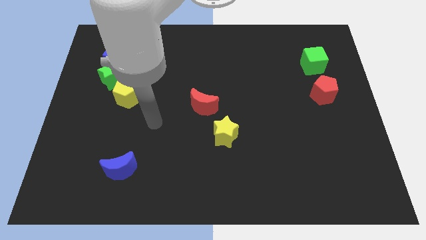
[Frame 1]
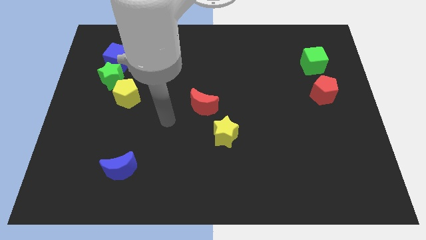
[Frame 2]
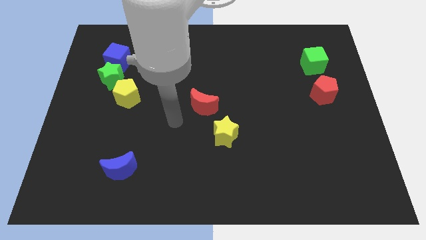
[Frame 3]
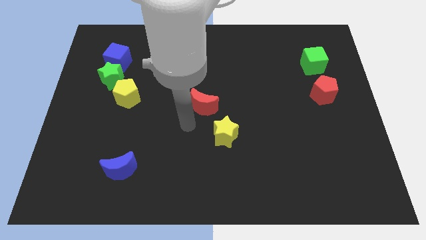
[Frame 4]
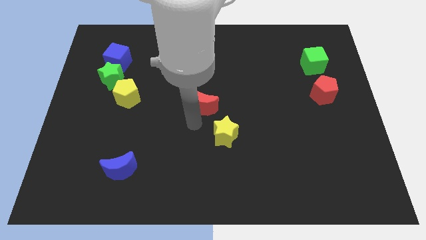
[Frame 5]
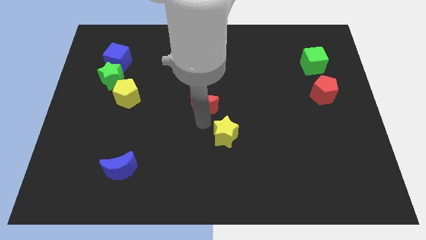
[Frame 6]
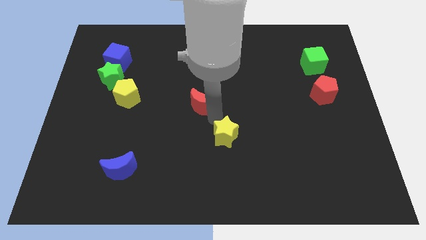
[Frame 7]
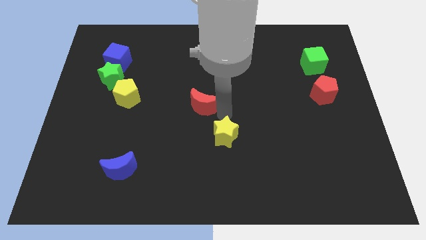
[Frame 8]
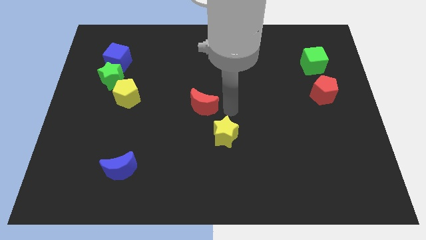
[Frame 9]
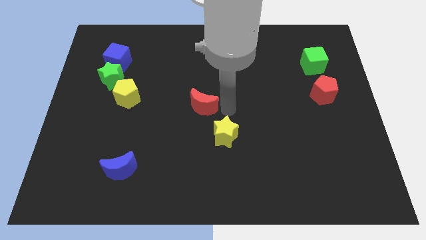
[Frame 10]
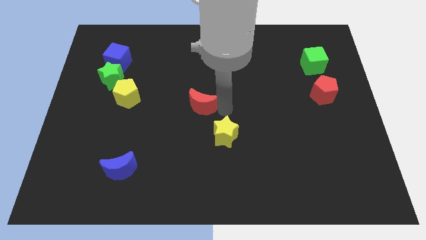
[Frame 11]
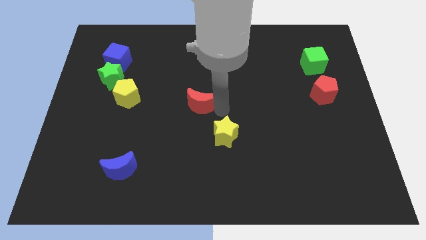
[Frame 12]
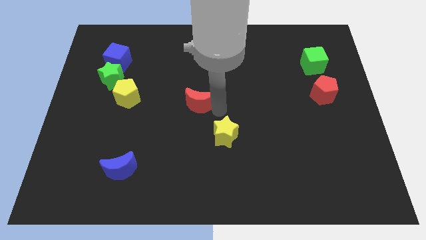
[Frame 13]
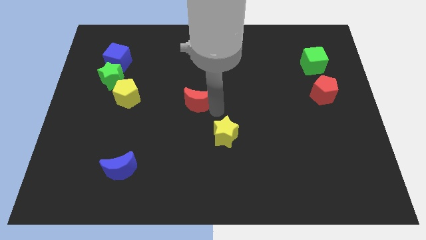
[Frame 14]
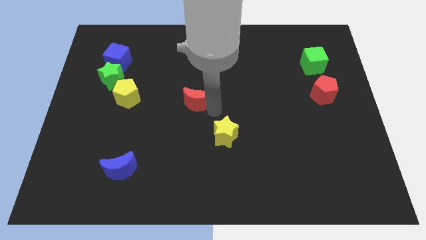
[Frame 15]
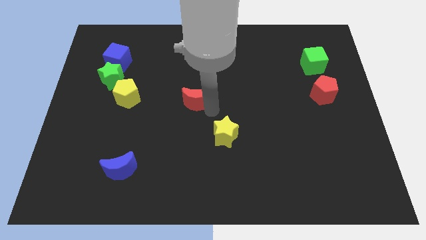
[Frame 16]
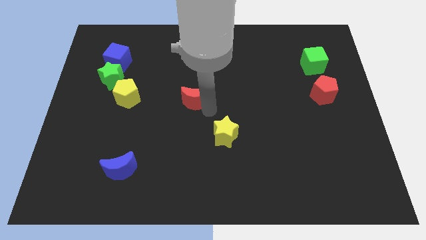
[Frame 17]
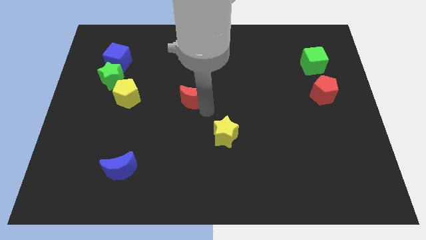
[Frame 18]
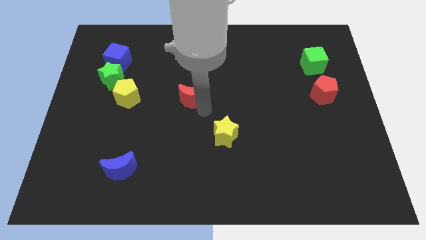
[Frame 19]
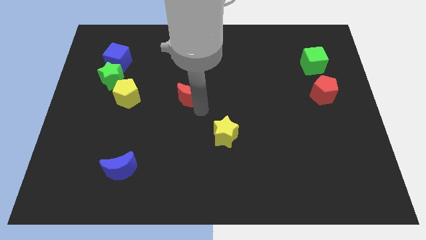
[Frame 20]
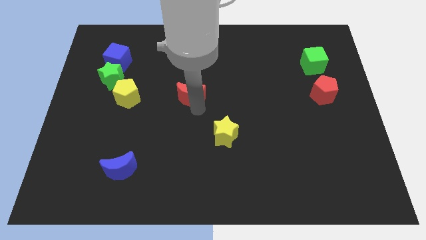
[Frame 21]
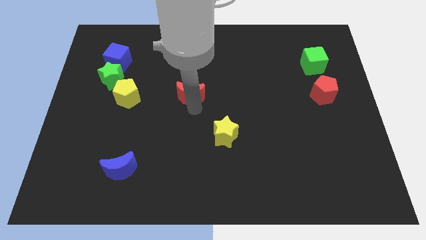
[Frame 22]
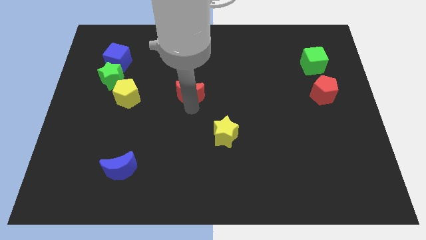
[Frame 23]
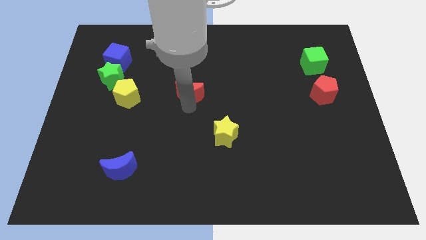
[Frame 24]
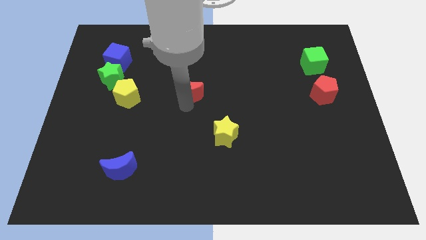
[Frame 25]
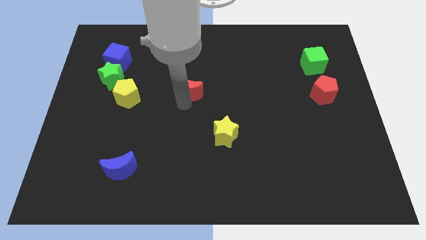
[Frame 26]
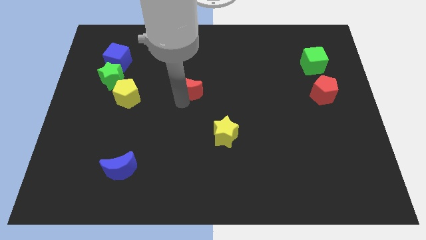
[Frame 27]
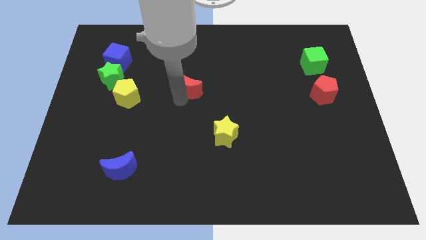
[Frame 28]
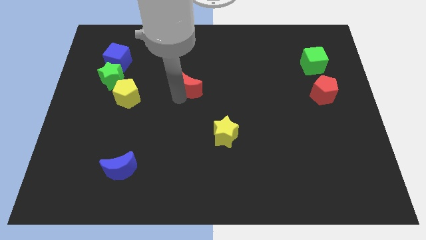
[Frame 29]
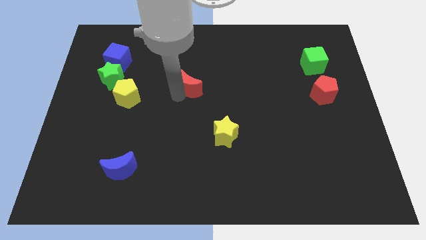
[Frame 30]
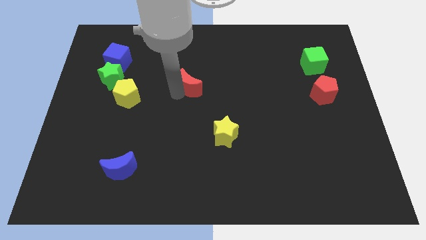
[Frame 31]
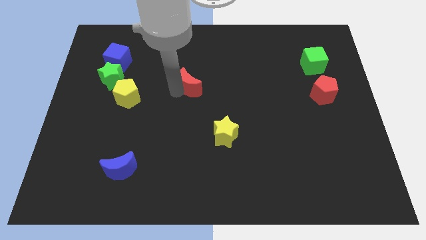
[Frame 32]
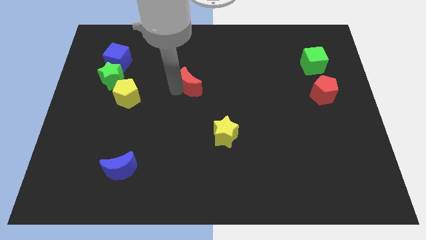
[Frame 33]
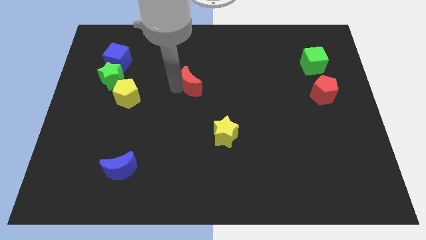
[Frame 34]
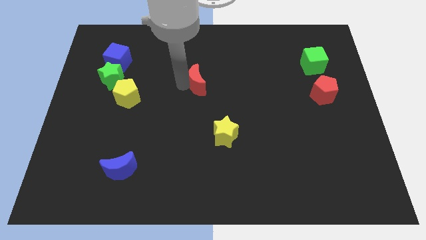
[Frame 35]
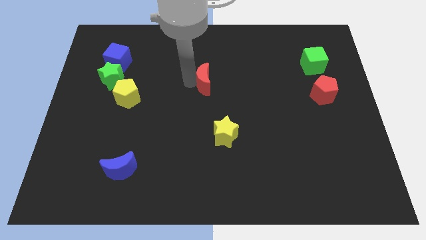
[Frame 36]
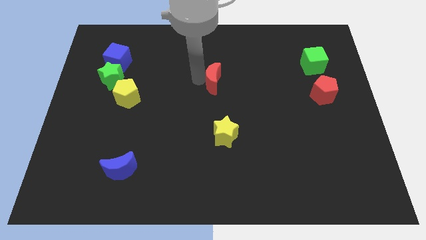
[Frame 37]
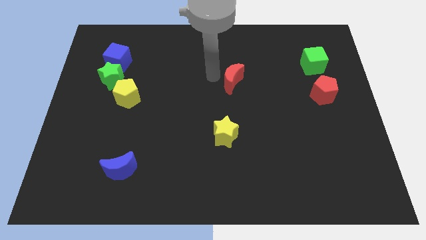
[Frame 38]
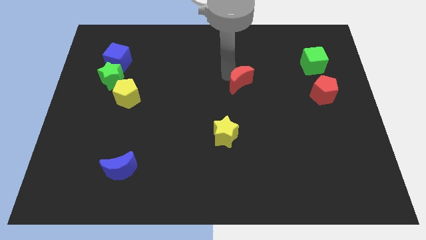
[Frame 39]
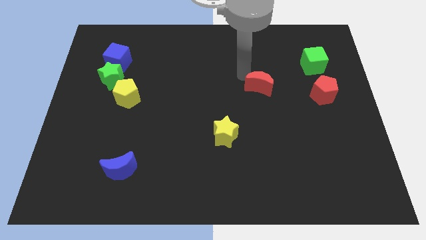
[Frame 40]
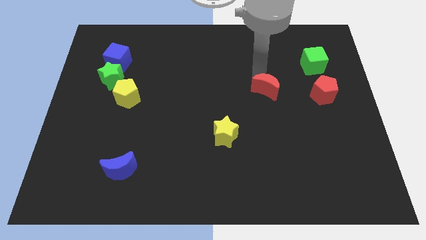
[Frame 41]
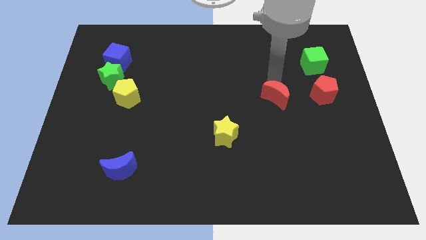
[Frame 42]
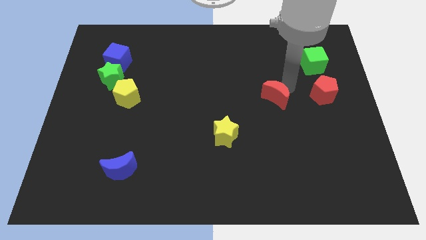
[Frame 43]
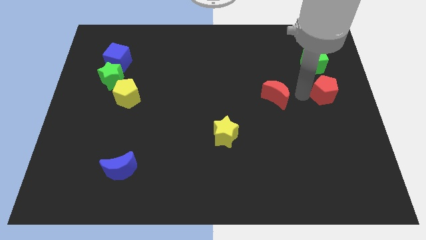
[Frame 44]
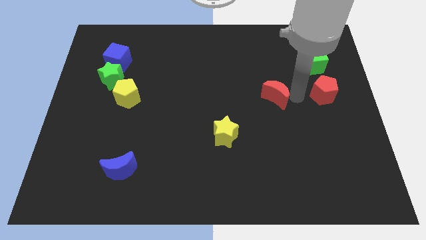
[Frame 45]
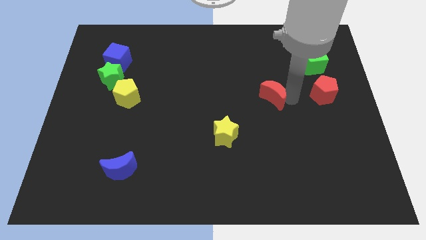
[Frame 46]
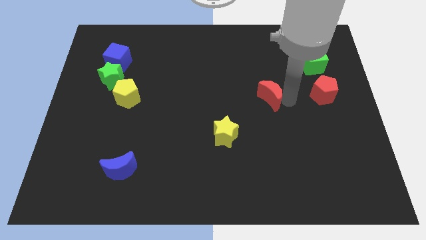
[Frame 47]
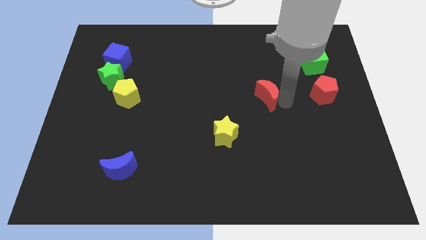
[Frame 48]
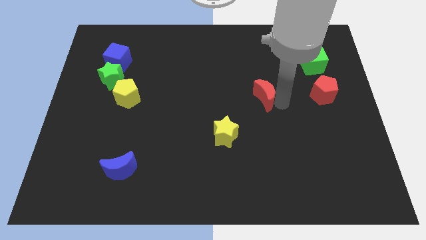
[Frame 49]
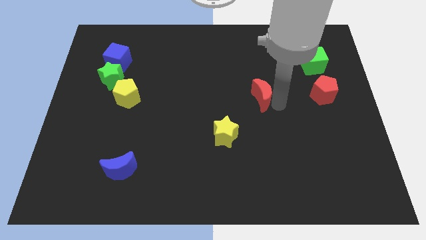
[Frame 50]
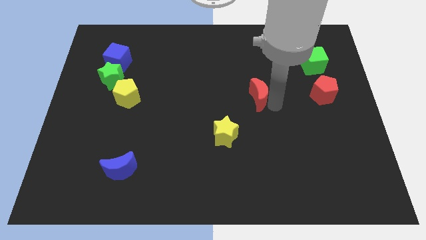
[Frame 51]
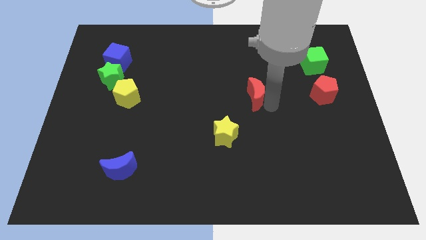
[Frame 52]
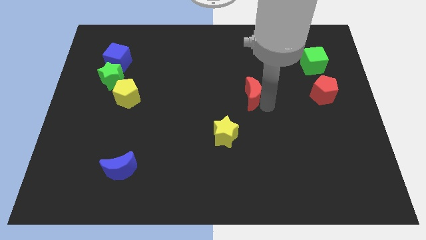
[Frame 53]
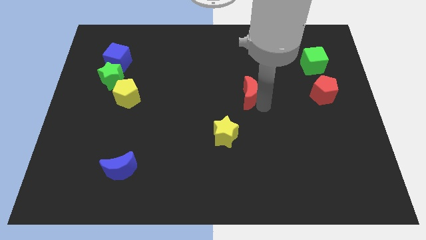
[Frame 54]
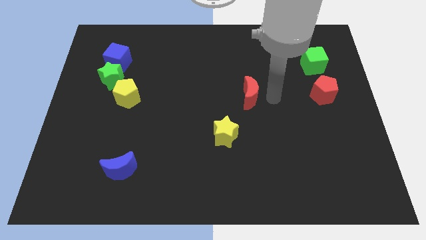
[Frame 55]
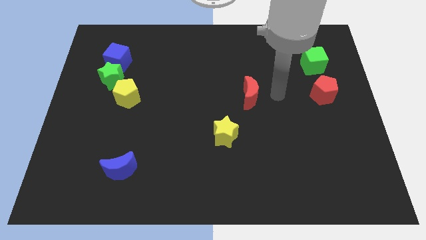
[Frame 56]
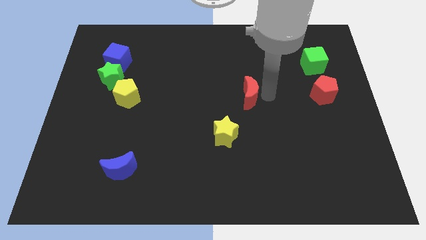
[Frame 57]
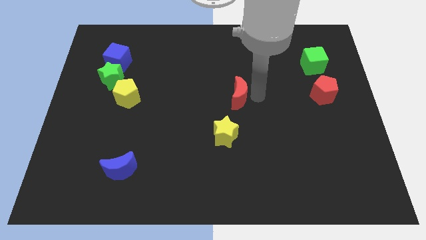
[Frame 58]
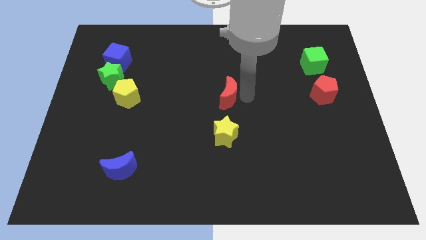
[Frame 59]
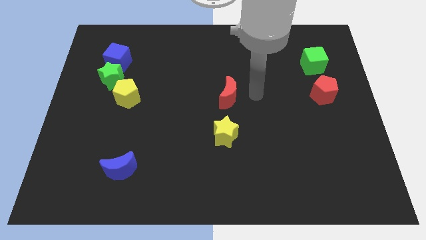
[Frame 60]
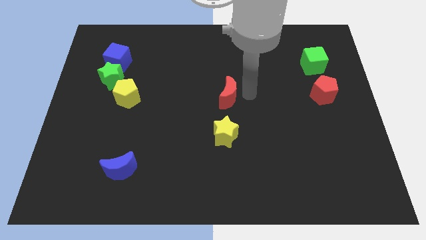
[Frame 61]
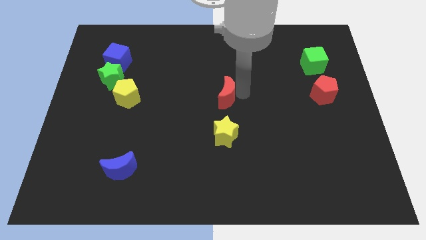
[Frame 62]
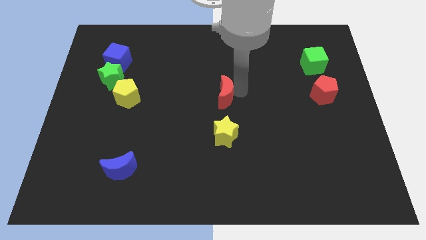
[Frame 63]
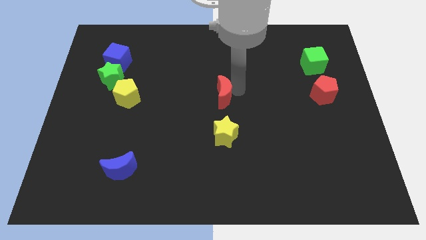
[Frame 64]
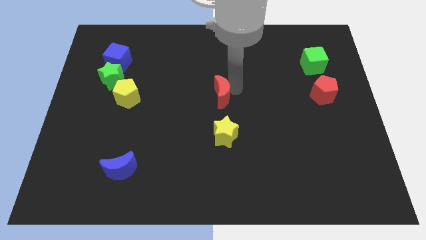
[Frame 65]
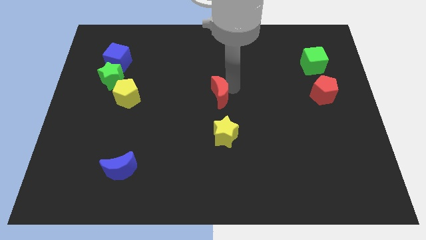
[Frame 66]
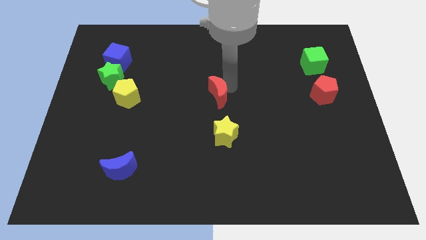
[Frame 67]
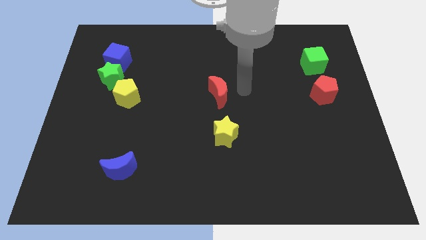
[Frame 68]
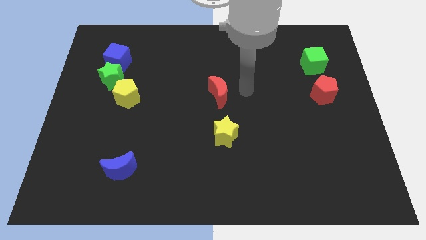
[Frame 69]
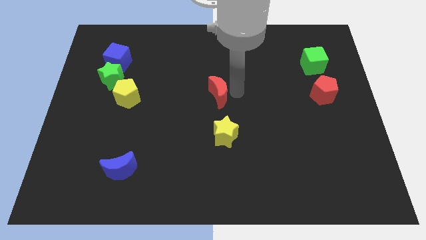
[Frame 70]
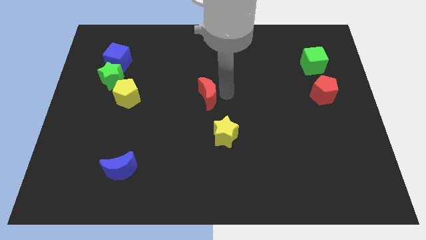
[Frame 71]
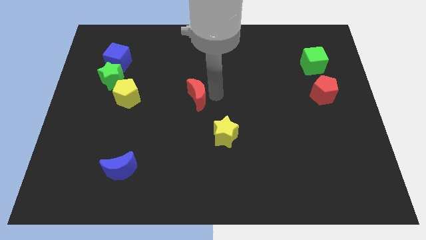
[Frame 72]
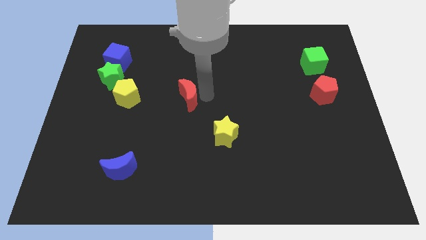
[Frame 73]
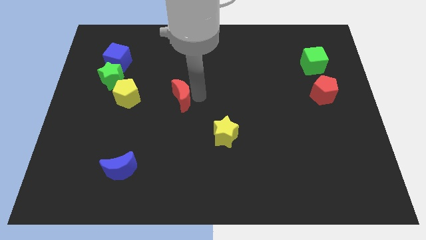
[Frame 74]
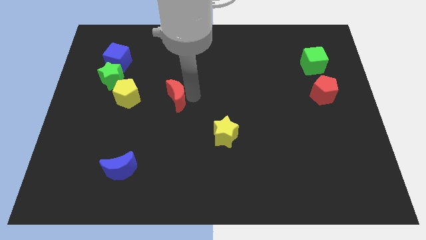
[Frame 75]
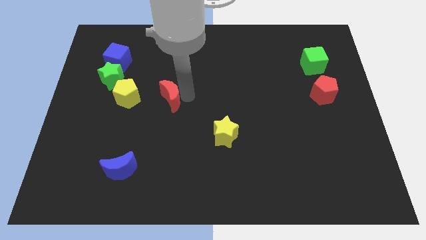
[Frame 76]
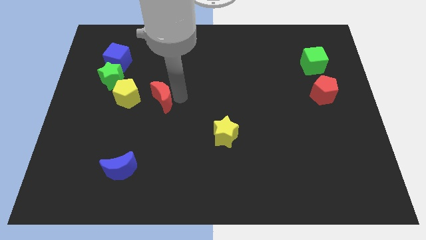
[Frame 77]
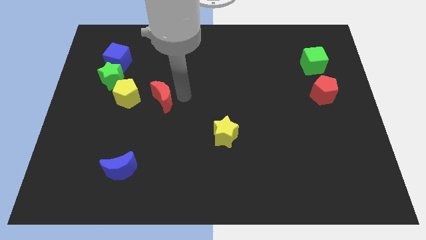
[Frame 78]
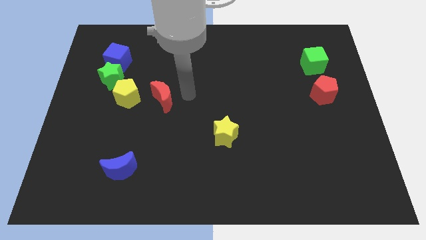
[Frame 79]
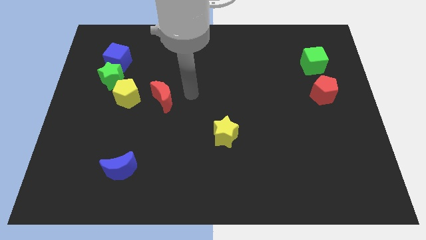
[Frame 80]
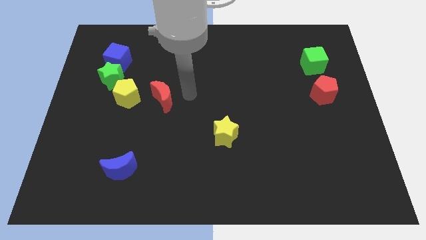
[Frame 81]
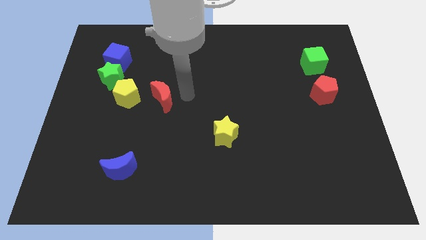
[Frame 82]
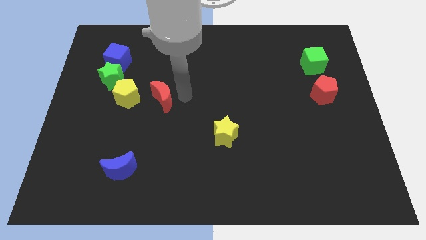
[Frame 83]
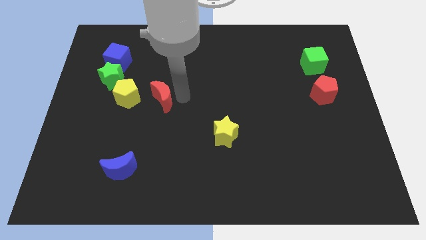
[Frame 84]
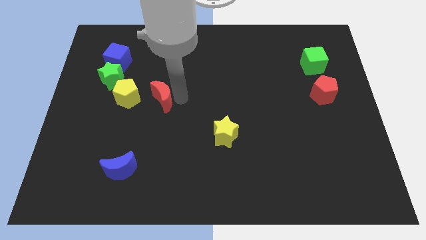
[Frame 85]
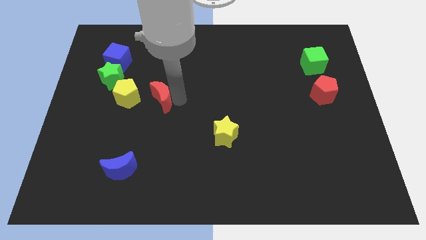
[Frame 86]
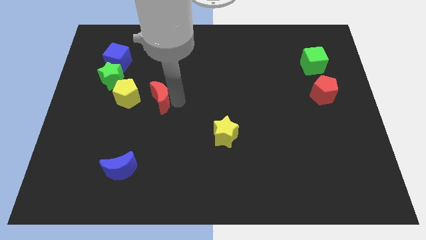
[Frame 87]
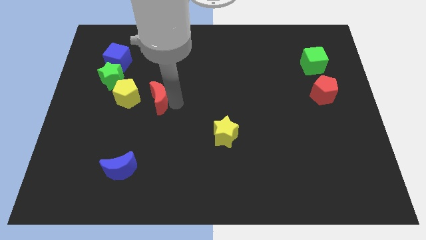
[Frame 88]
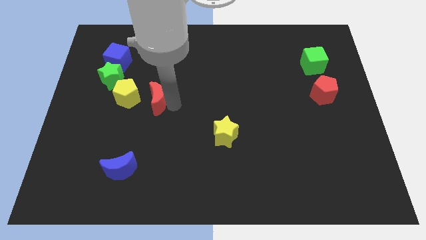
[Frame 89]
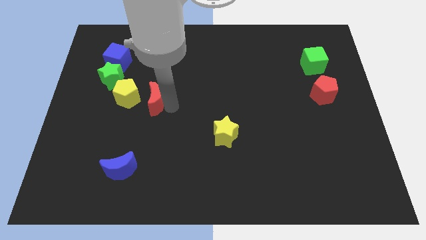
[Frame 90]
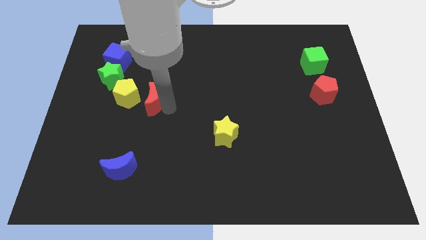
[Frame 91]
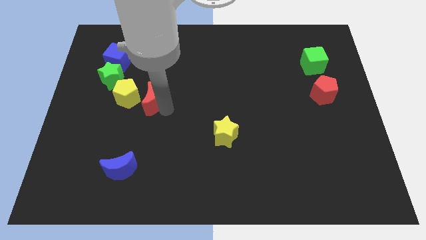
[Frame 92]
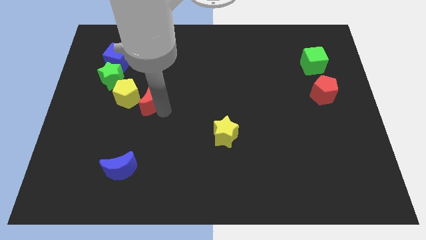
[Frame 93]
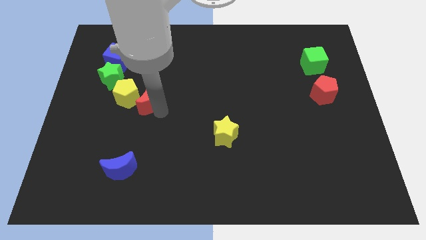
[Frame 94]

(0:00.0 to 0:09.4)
move the red moon close to the yellow pentagon
